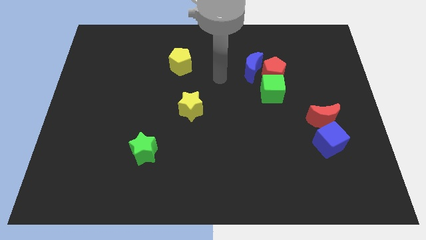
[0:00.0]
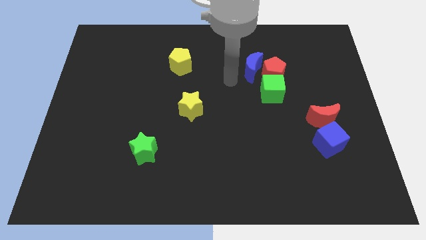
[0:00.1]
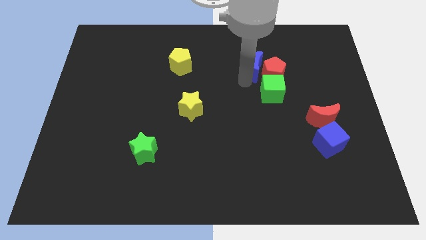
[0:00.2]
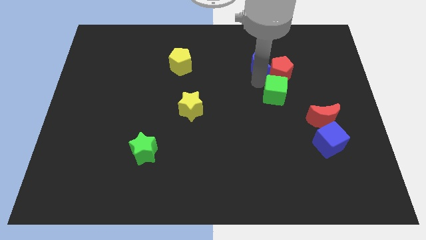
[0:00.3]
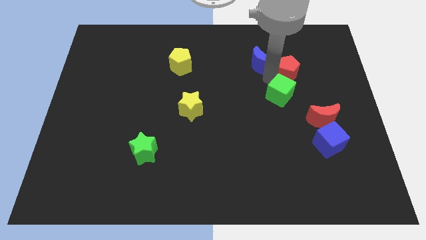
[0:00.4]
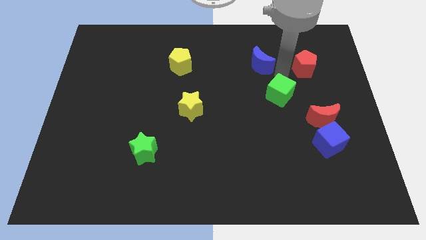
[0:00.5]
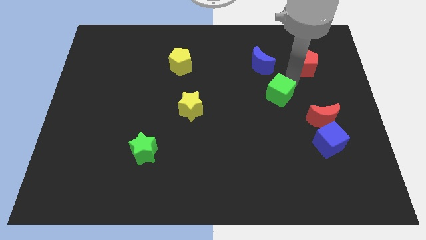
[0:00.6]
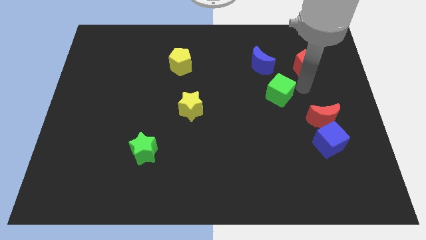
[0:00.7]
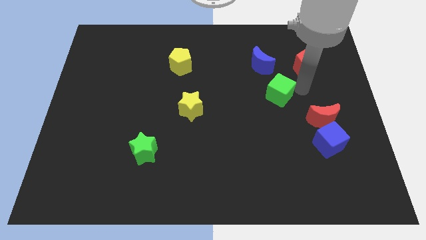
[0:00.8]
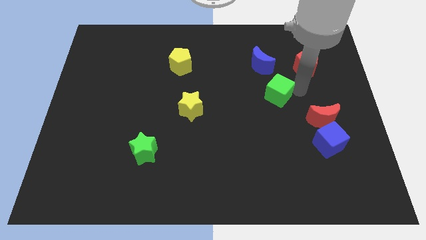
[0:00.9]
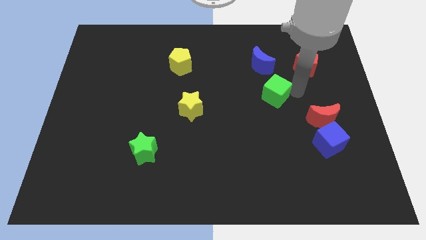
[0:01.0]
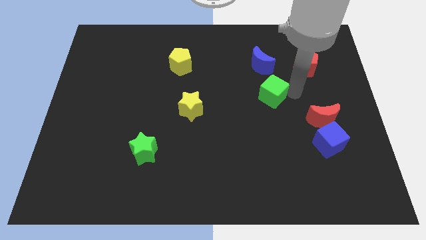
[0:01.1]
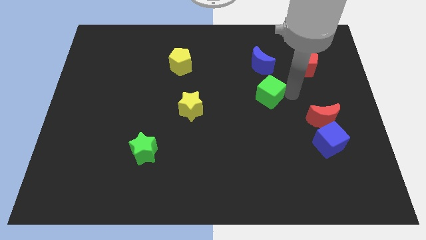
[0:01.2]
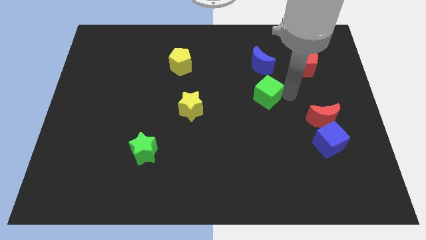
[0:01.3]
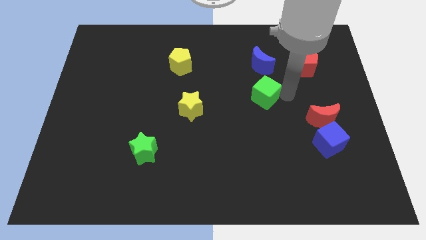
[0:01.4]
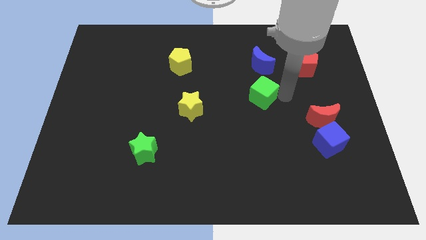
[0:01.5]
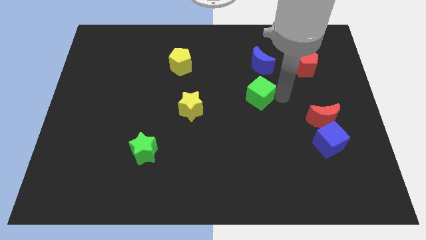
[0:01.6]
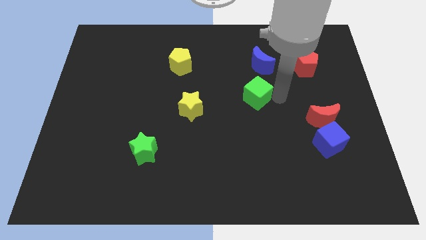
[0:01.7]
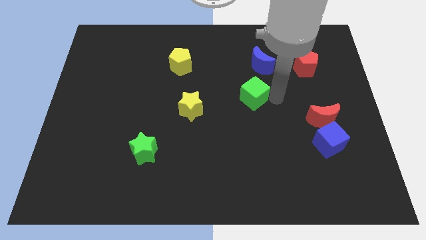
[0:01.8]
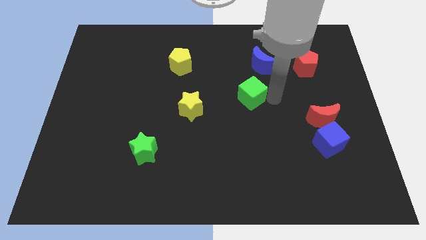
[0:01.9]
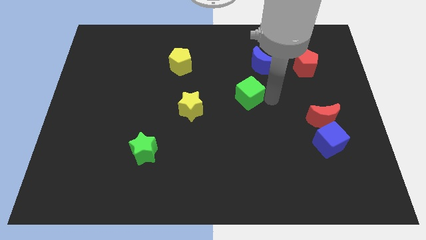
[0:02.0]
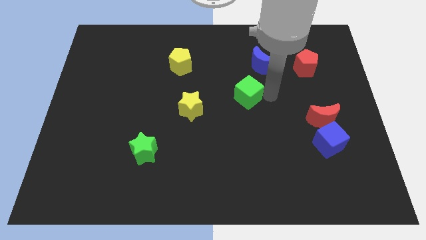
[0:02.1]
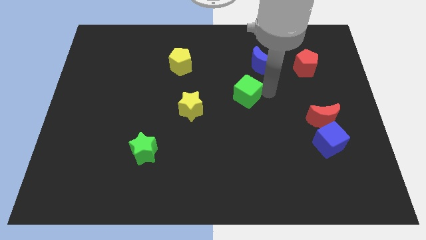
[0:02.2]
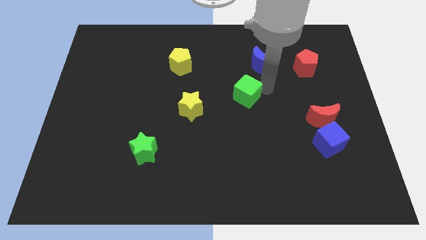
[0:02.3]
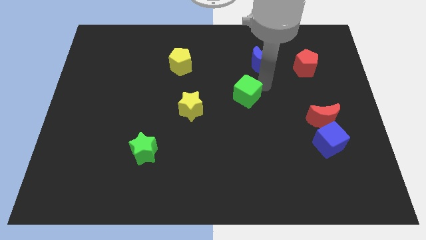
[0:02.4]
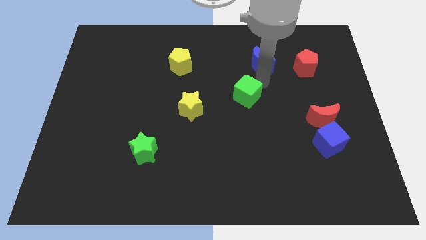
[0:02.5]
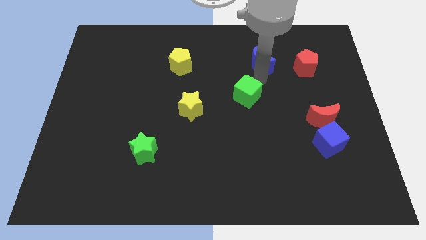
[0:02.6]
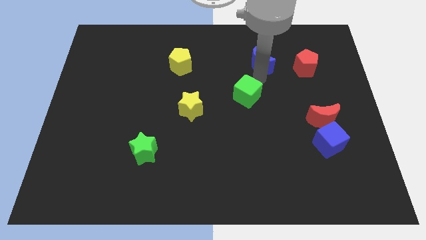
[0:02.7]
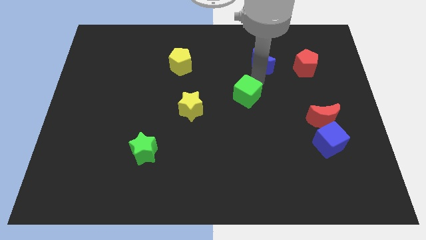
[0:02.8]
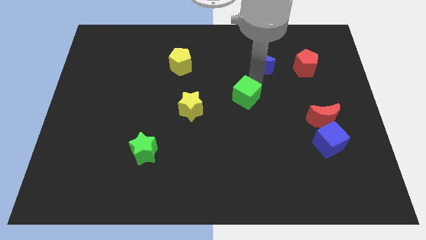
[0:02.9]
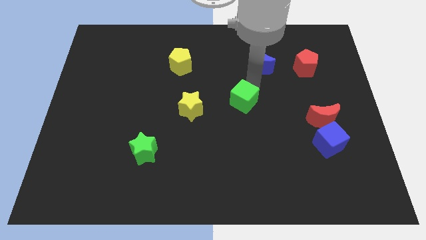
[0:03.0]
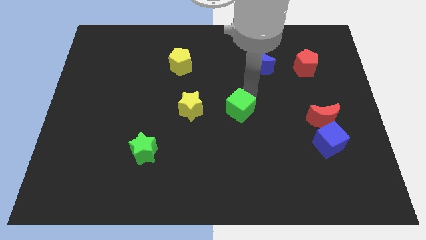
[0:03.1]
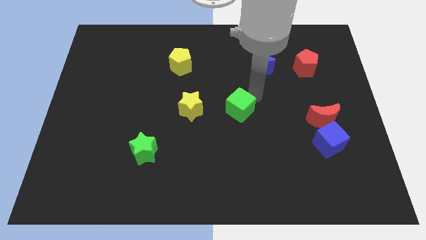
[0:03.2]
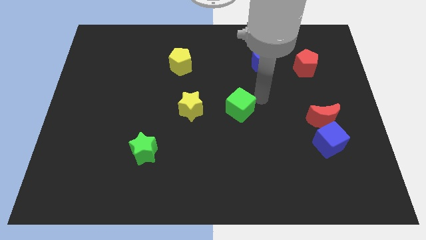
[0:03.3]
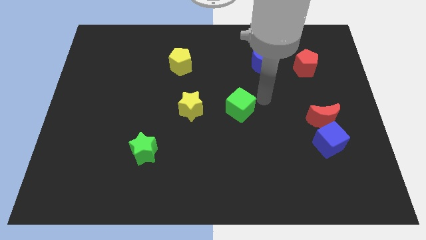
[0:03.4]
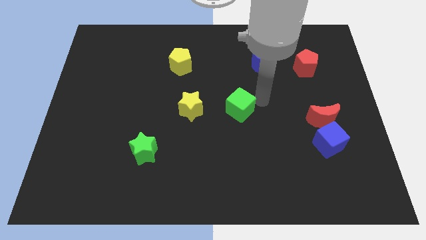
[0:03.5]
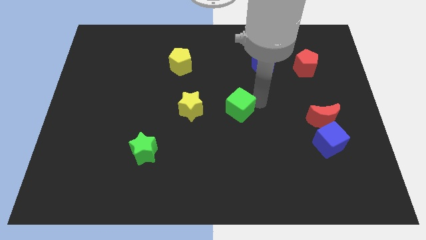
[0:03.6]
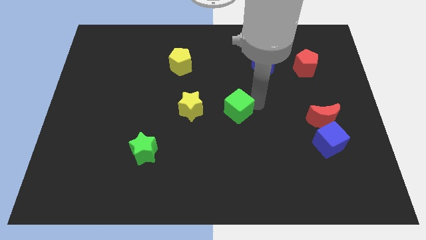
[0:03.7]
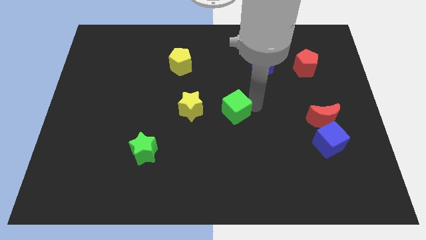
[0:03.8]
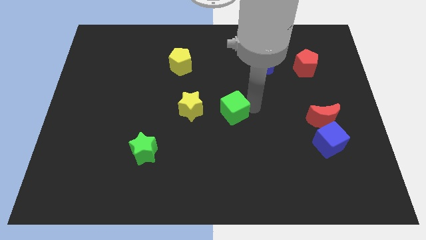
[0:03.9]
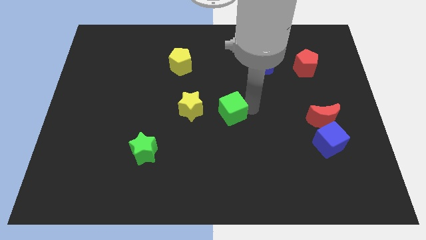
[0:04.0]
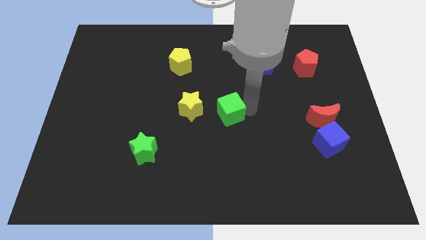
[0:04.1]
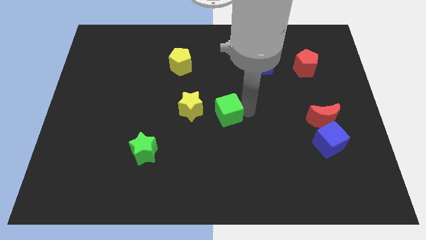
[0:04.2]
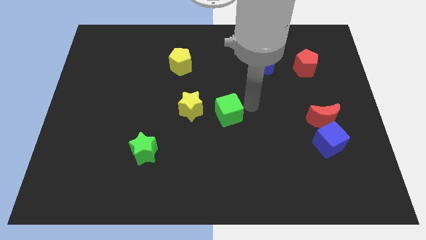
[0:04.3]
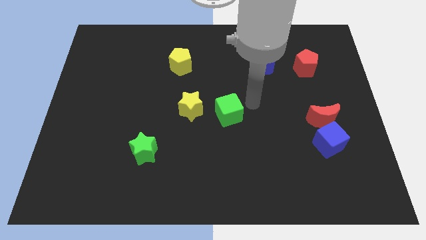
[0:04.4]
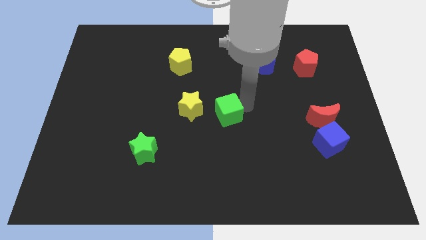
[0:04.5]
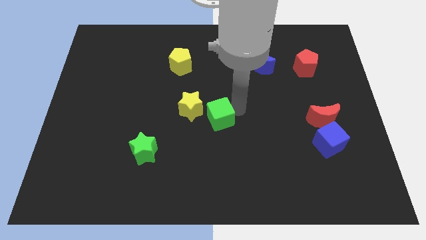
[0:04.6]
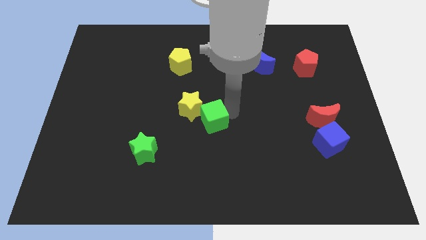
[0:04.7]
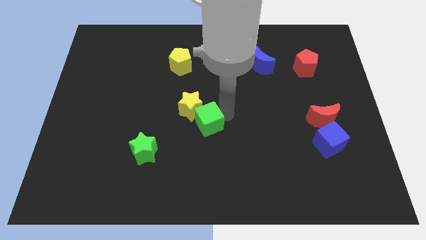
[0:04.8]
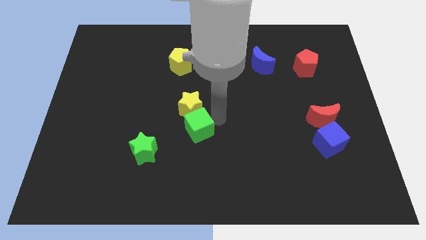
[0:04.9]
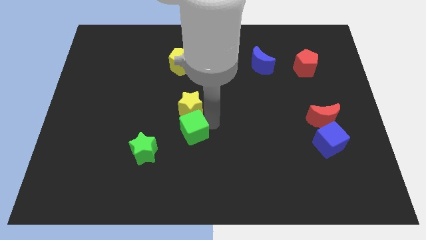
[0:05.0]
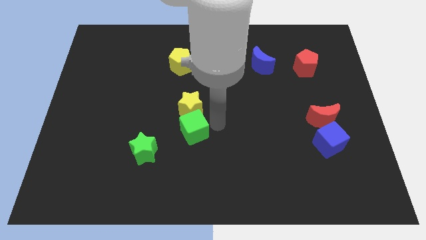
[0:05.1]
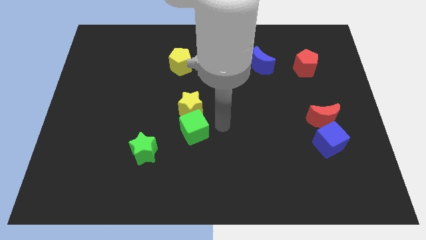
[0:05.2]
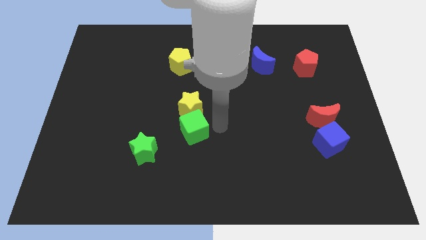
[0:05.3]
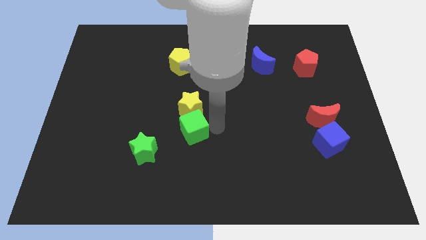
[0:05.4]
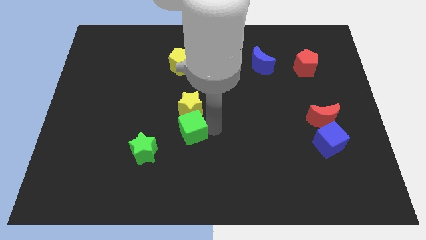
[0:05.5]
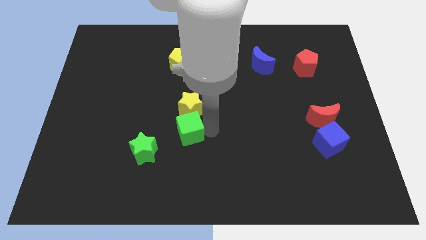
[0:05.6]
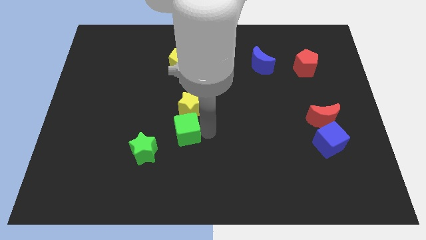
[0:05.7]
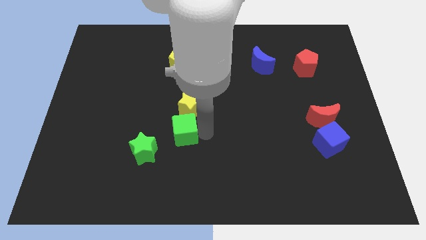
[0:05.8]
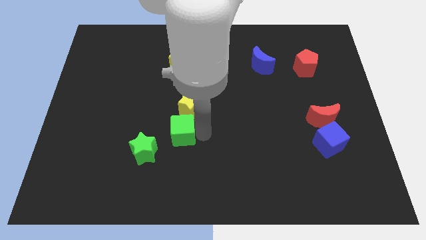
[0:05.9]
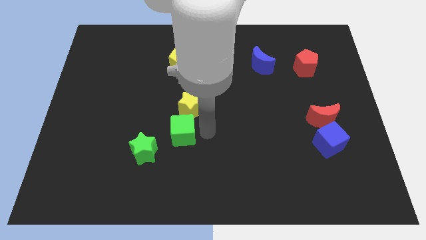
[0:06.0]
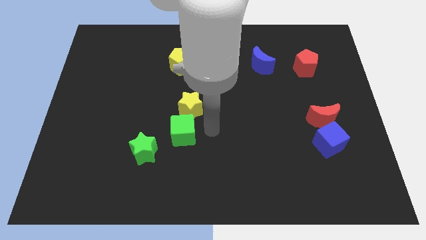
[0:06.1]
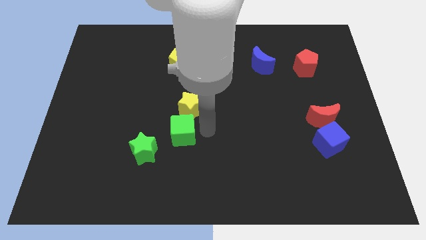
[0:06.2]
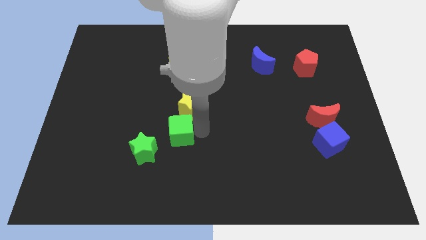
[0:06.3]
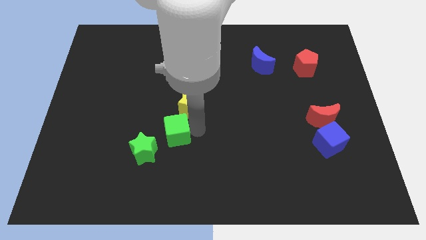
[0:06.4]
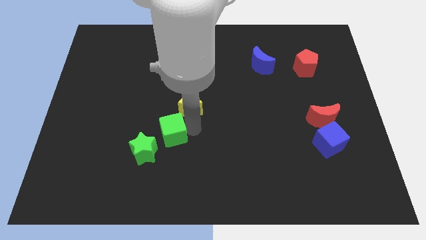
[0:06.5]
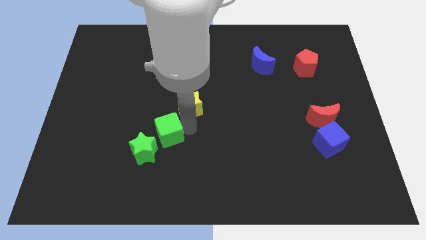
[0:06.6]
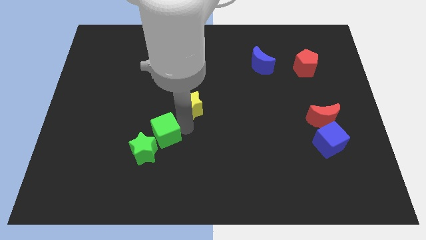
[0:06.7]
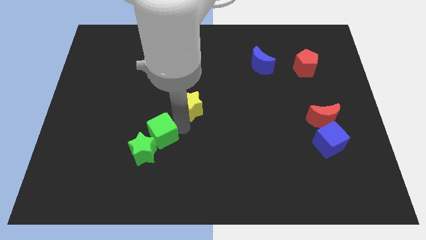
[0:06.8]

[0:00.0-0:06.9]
put the green cube next to the green star

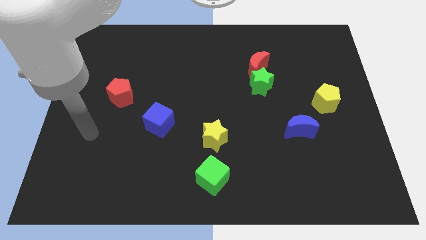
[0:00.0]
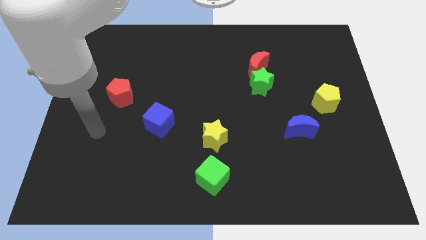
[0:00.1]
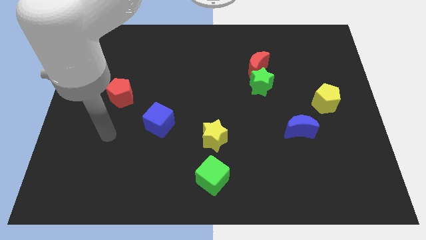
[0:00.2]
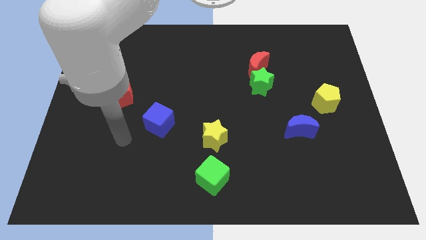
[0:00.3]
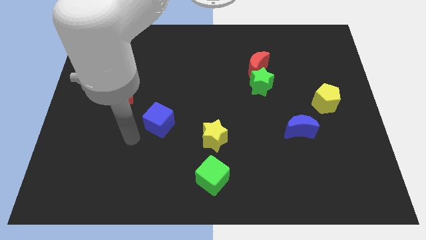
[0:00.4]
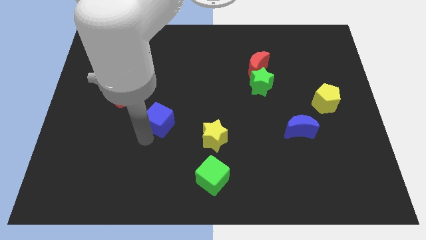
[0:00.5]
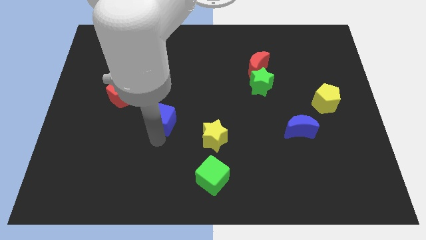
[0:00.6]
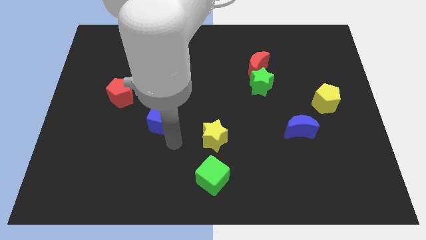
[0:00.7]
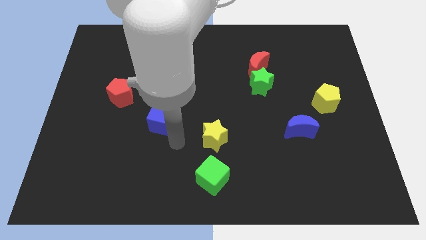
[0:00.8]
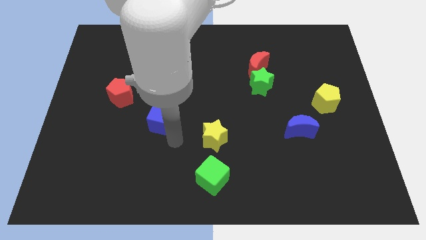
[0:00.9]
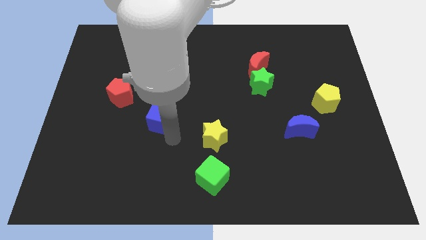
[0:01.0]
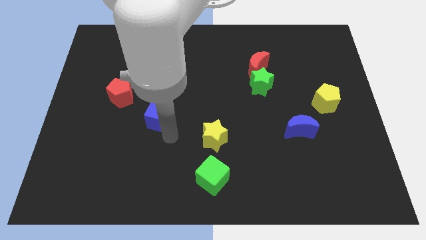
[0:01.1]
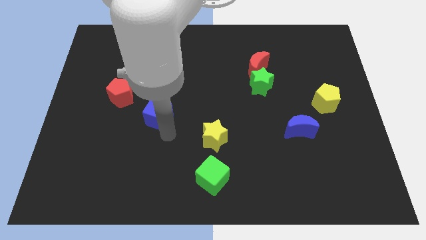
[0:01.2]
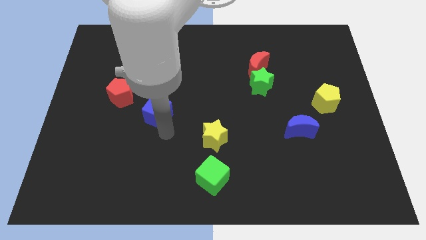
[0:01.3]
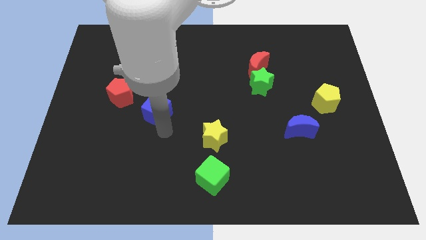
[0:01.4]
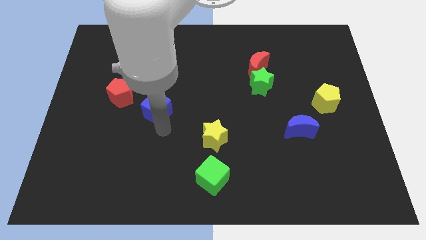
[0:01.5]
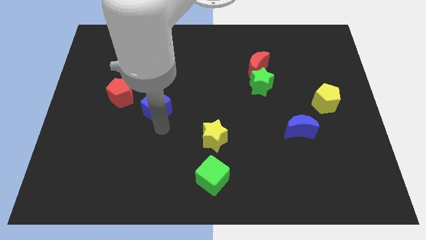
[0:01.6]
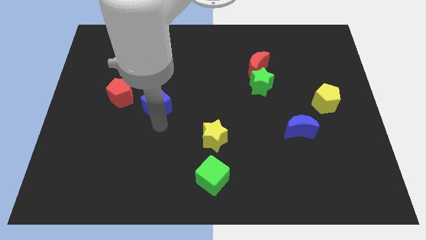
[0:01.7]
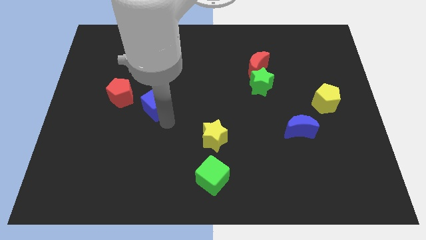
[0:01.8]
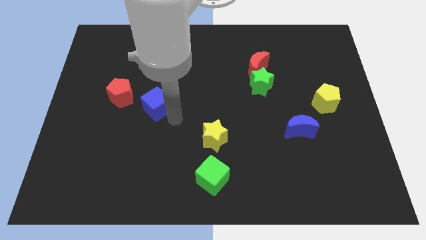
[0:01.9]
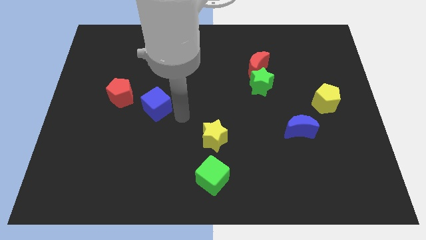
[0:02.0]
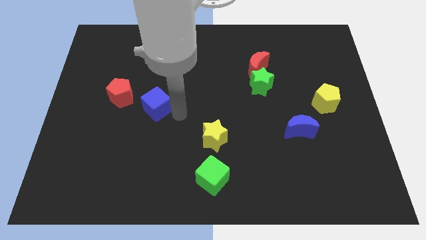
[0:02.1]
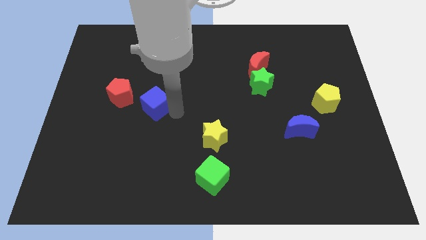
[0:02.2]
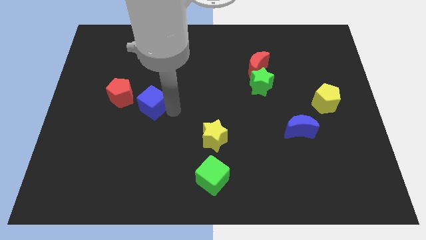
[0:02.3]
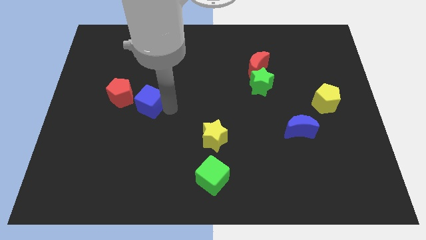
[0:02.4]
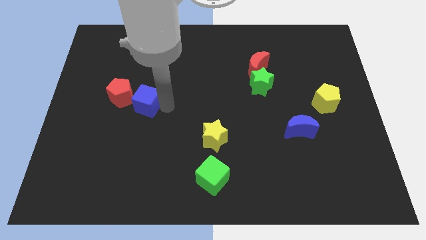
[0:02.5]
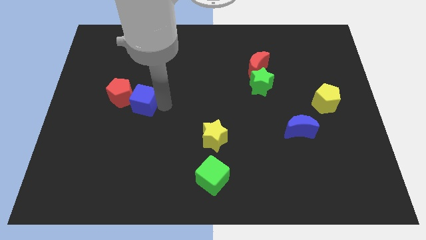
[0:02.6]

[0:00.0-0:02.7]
put the blue cube close to the red pentagon
